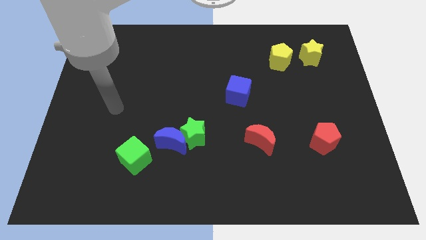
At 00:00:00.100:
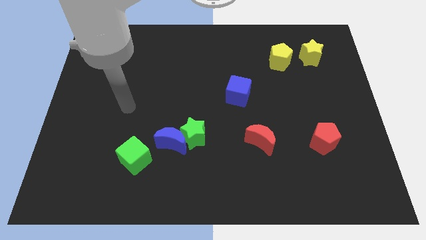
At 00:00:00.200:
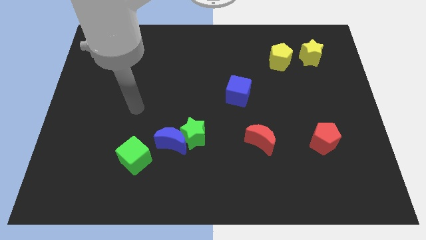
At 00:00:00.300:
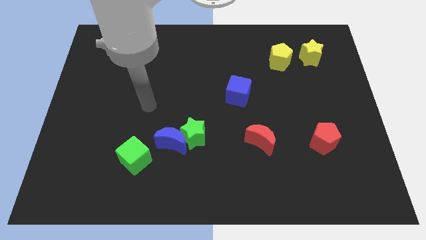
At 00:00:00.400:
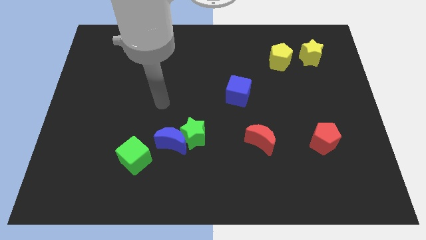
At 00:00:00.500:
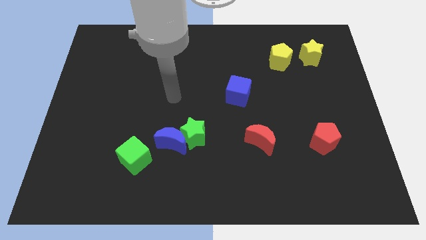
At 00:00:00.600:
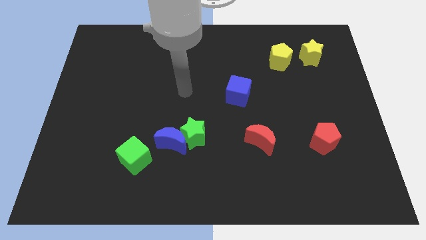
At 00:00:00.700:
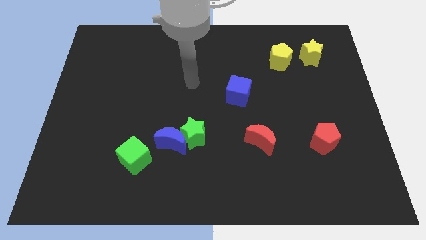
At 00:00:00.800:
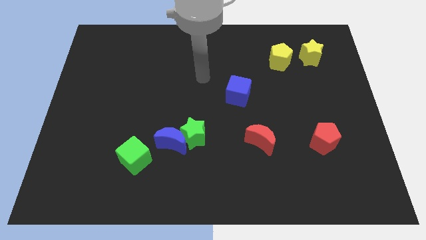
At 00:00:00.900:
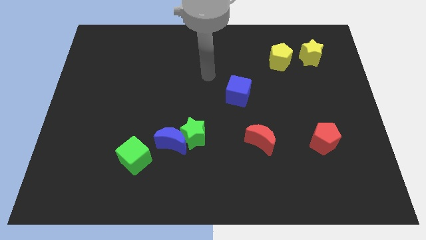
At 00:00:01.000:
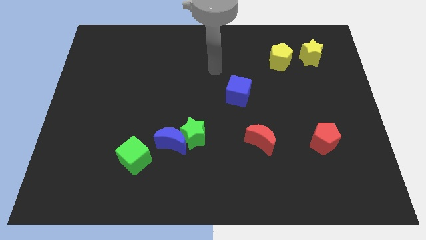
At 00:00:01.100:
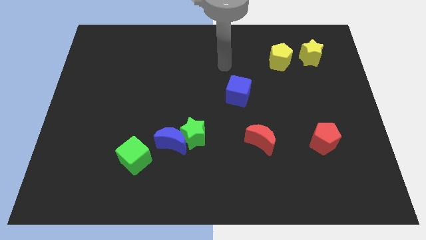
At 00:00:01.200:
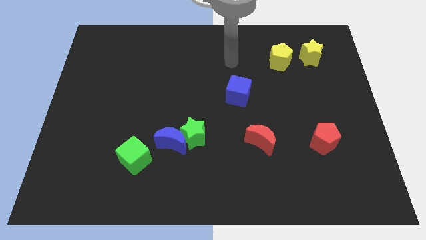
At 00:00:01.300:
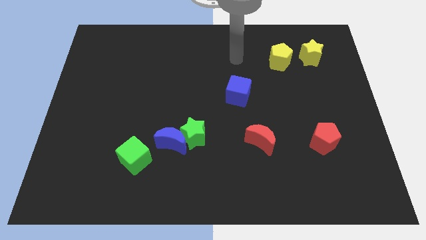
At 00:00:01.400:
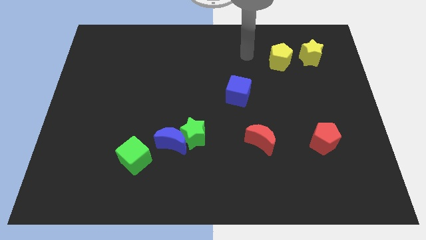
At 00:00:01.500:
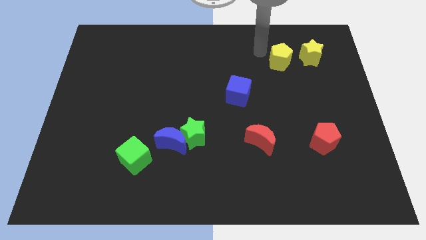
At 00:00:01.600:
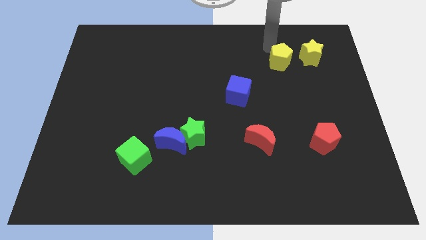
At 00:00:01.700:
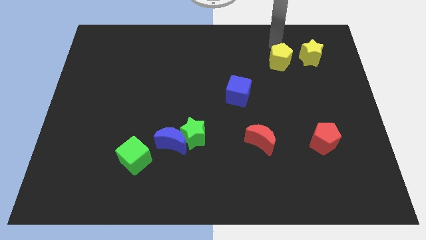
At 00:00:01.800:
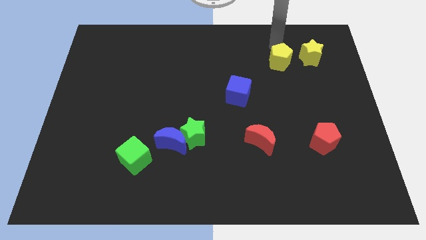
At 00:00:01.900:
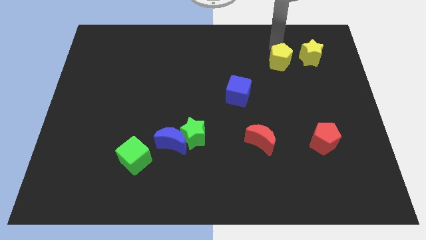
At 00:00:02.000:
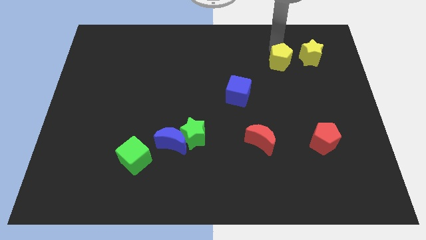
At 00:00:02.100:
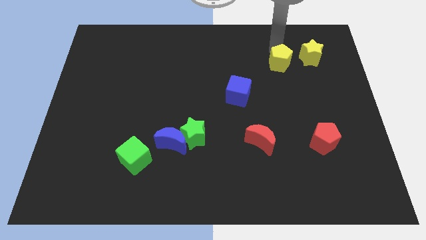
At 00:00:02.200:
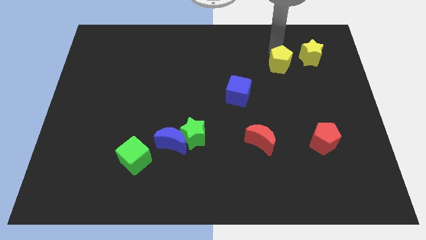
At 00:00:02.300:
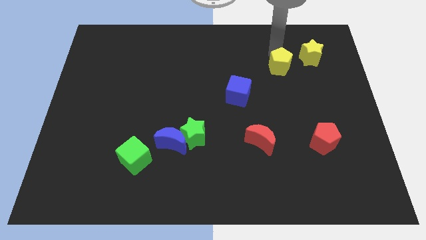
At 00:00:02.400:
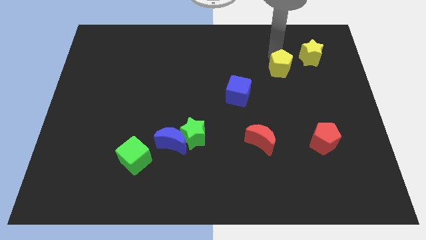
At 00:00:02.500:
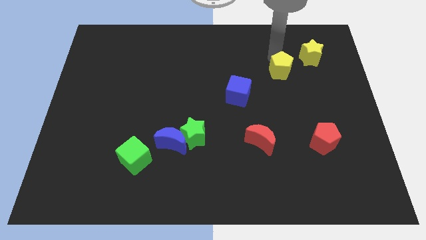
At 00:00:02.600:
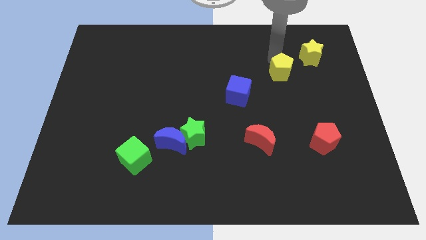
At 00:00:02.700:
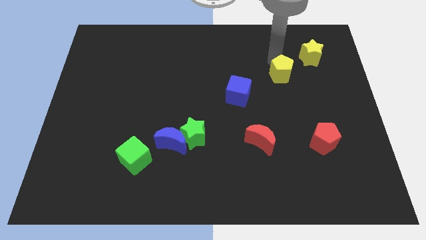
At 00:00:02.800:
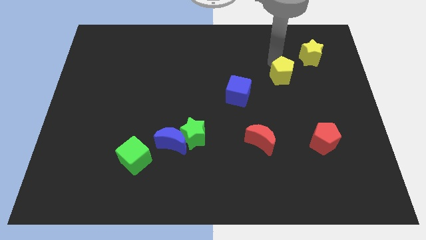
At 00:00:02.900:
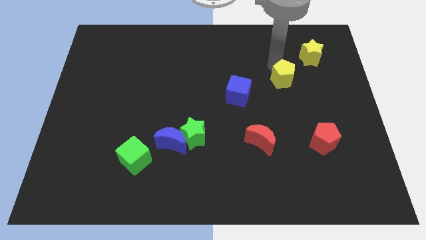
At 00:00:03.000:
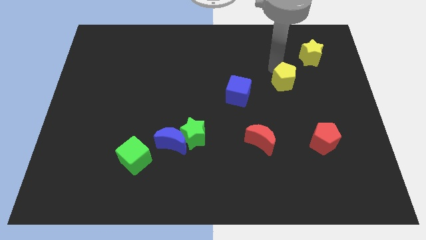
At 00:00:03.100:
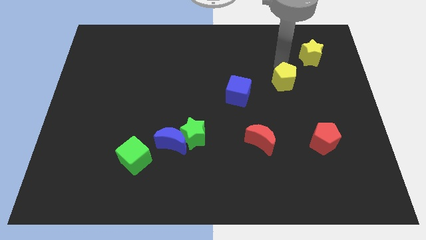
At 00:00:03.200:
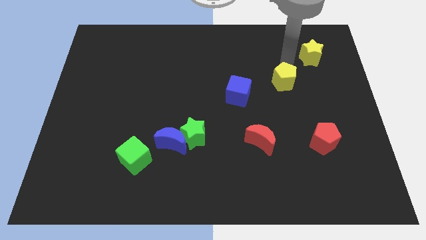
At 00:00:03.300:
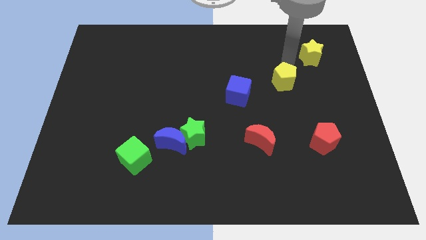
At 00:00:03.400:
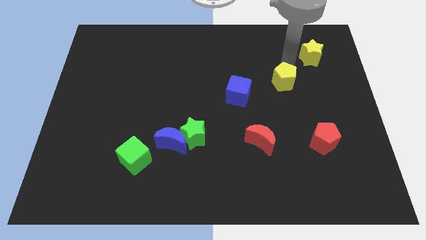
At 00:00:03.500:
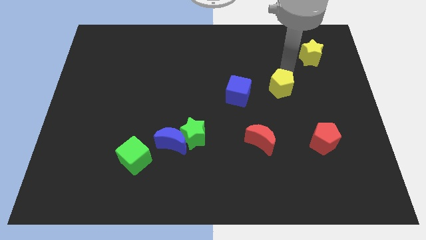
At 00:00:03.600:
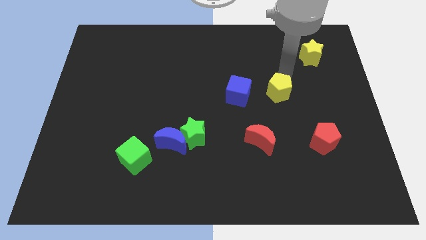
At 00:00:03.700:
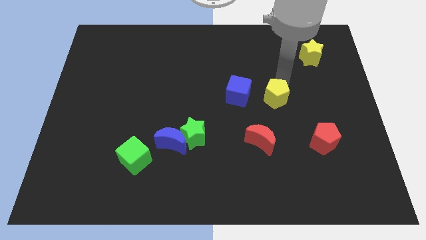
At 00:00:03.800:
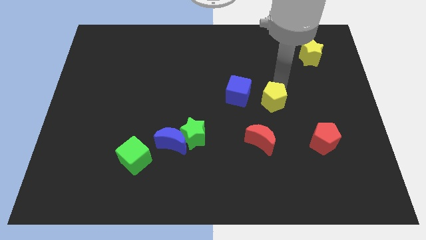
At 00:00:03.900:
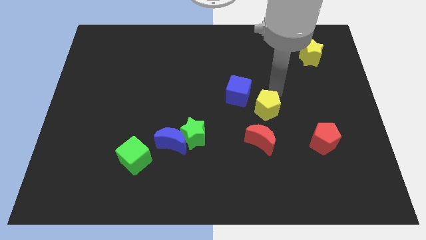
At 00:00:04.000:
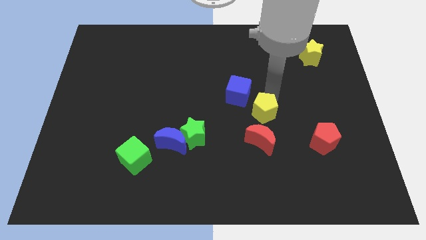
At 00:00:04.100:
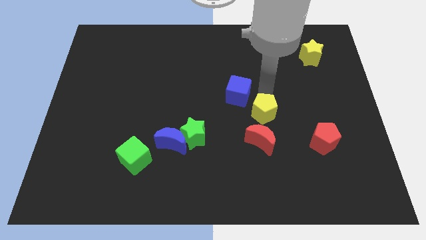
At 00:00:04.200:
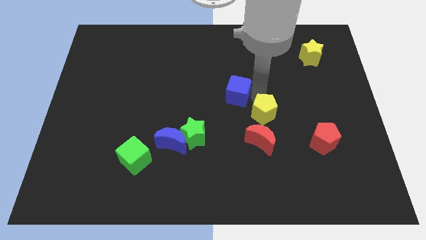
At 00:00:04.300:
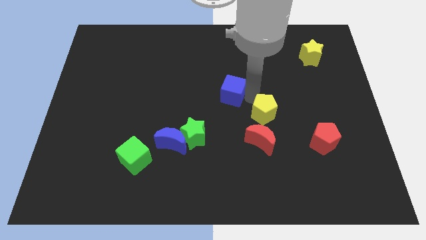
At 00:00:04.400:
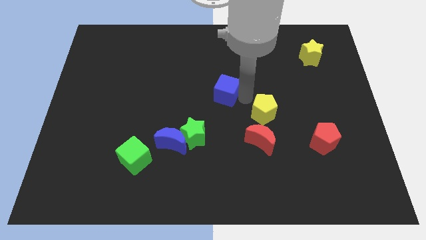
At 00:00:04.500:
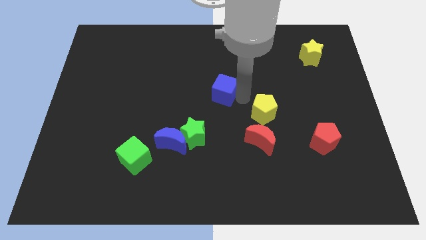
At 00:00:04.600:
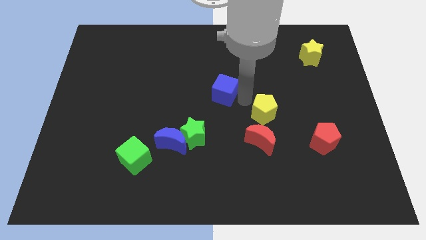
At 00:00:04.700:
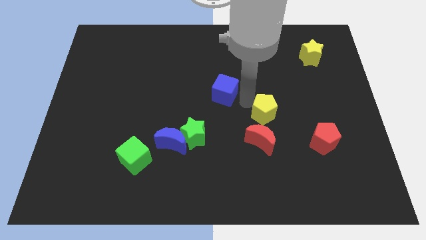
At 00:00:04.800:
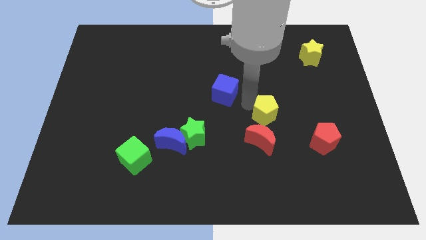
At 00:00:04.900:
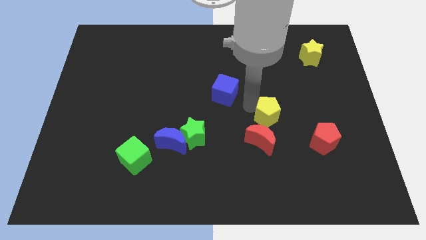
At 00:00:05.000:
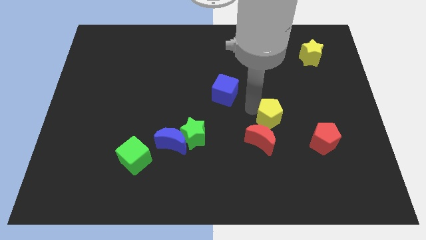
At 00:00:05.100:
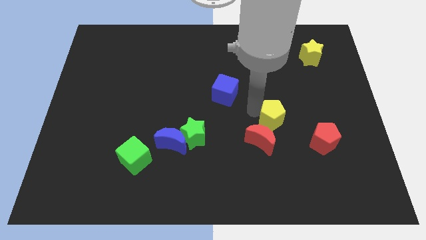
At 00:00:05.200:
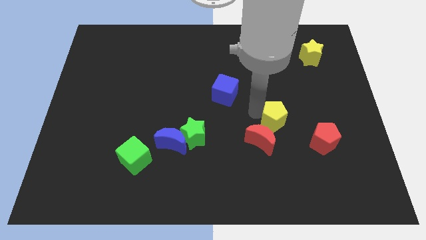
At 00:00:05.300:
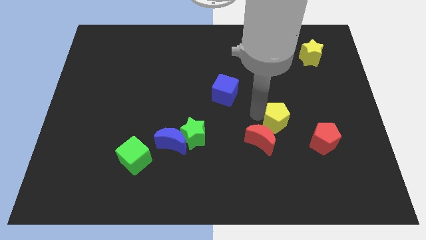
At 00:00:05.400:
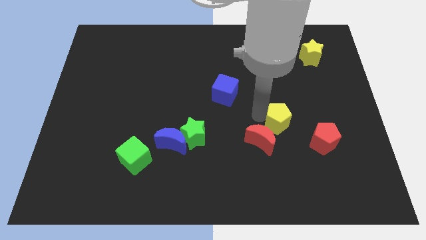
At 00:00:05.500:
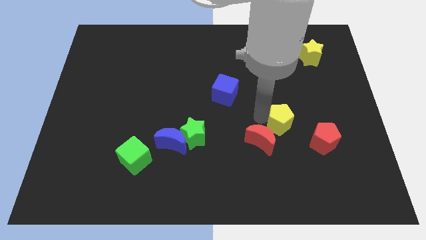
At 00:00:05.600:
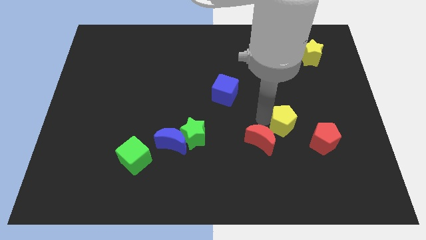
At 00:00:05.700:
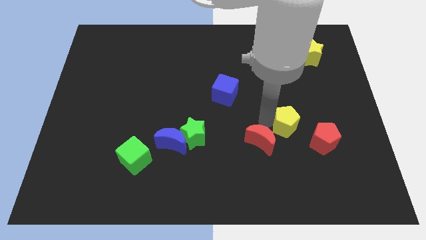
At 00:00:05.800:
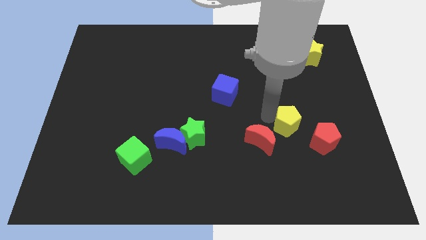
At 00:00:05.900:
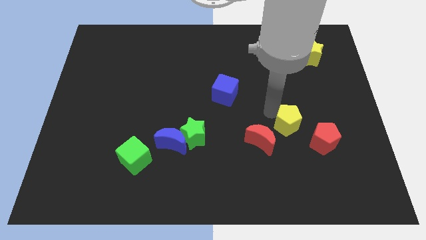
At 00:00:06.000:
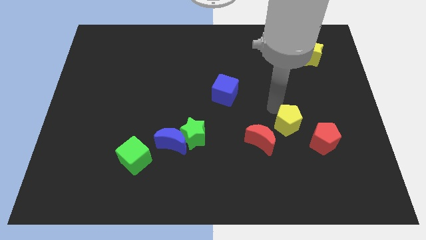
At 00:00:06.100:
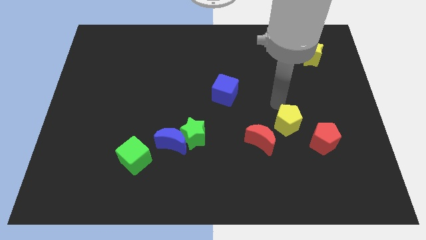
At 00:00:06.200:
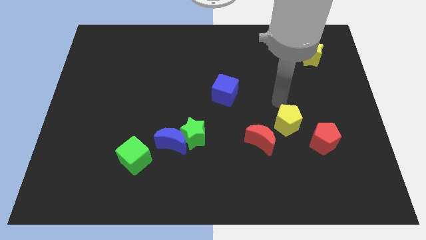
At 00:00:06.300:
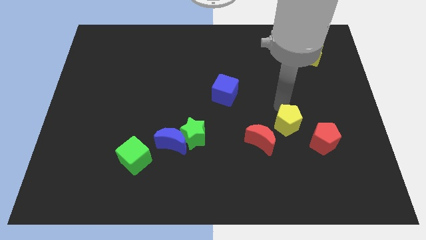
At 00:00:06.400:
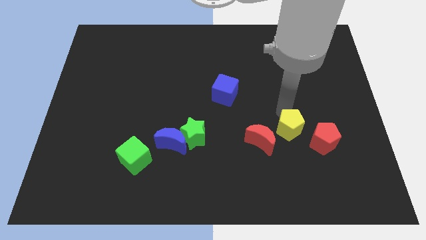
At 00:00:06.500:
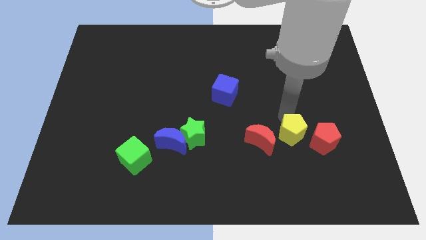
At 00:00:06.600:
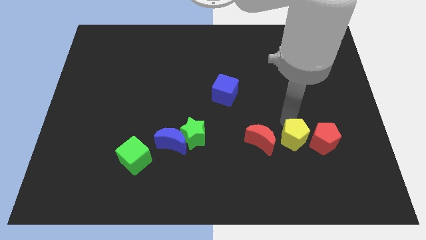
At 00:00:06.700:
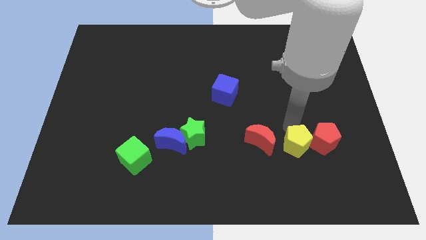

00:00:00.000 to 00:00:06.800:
push the yellow pentagon to the bottom left of the red pentagon

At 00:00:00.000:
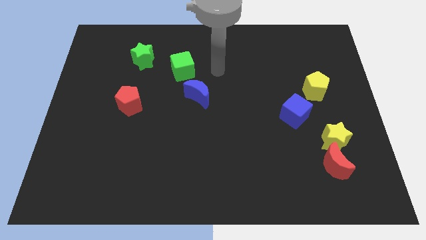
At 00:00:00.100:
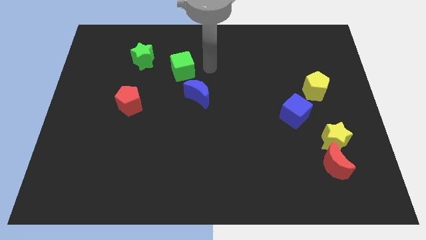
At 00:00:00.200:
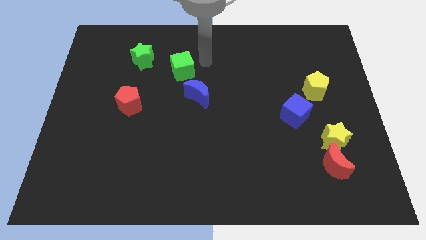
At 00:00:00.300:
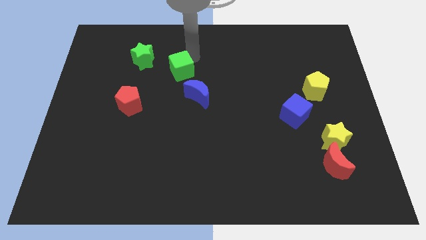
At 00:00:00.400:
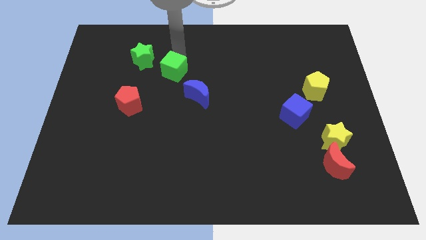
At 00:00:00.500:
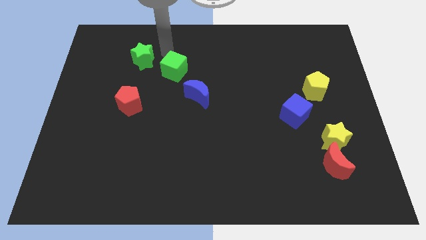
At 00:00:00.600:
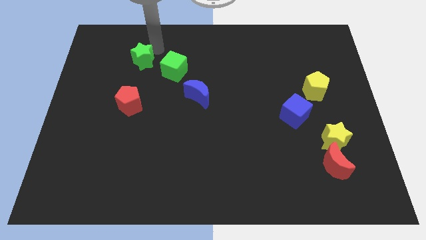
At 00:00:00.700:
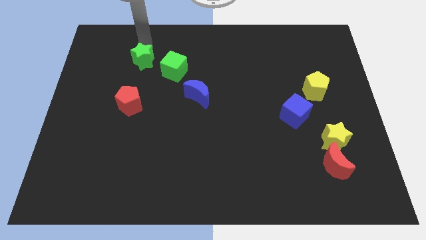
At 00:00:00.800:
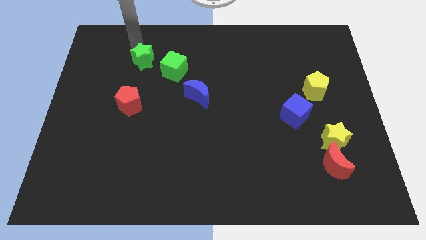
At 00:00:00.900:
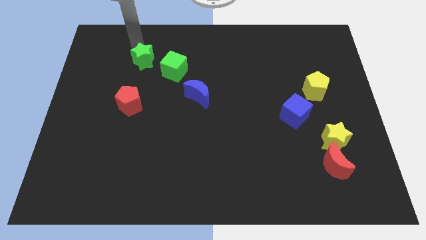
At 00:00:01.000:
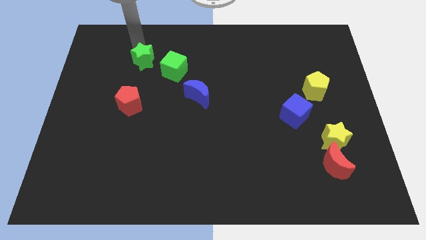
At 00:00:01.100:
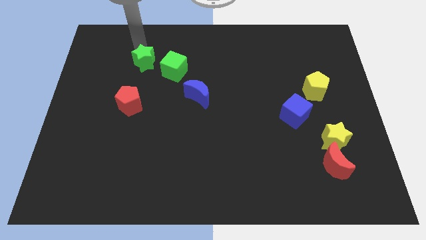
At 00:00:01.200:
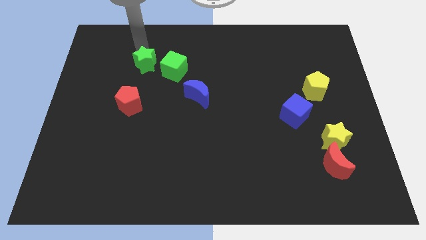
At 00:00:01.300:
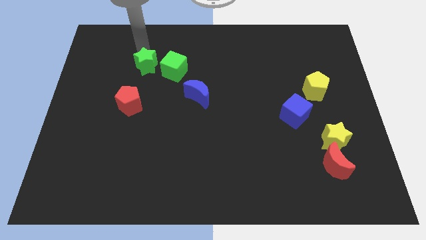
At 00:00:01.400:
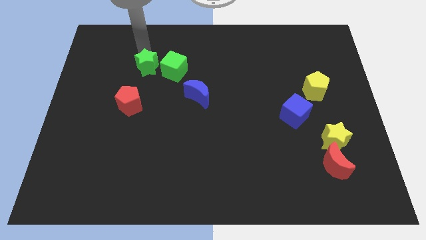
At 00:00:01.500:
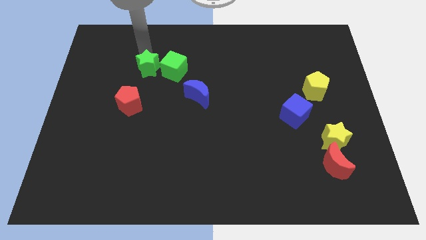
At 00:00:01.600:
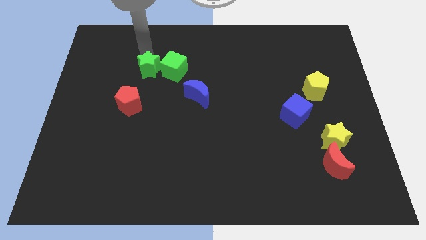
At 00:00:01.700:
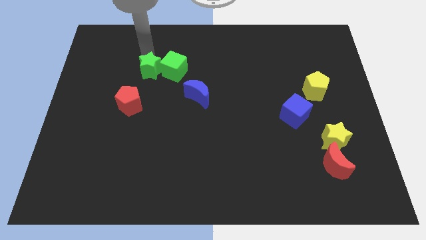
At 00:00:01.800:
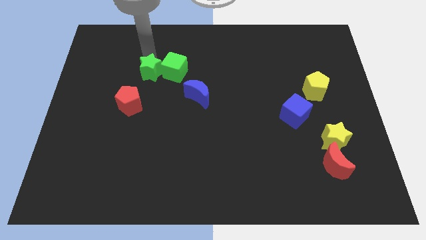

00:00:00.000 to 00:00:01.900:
move the green star to the top right of the red pentagon
